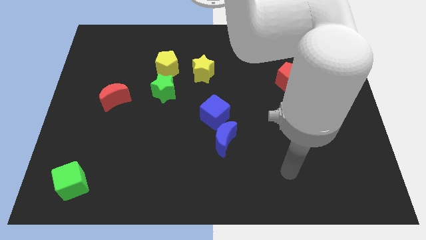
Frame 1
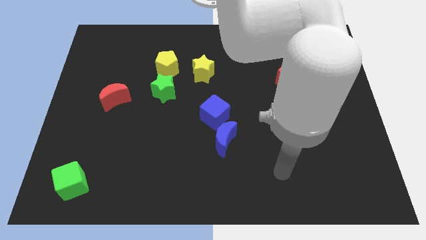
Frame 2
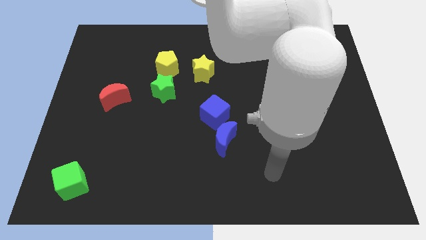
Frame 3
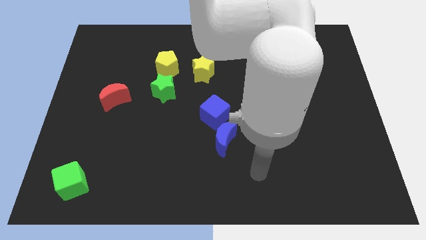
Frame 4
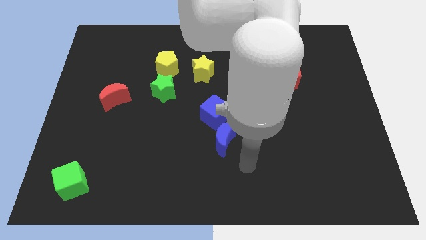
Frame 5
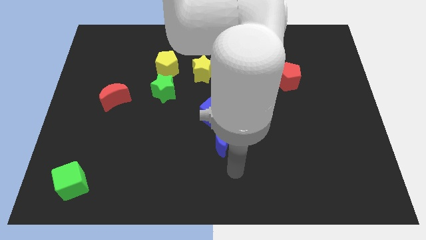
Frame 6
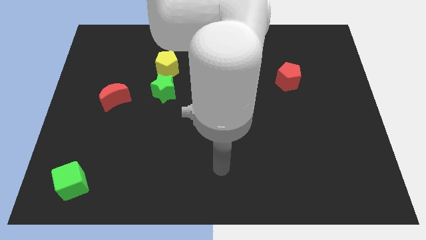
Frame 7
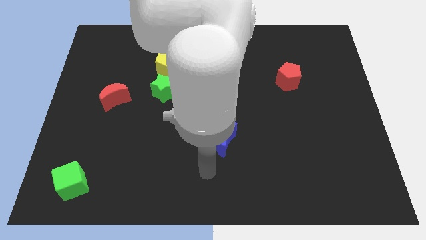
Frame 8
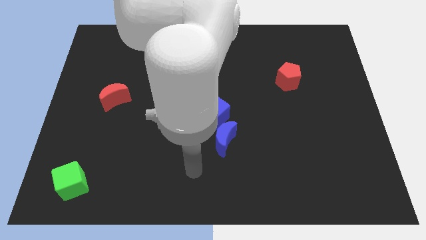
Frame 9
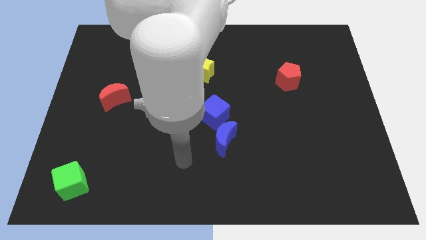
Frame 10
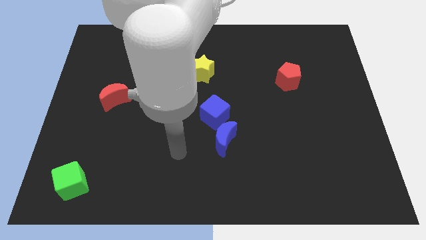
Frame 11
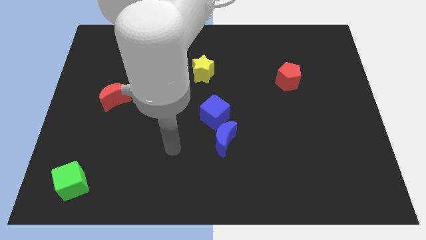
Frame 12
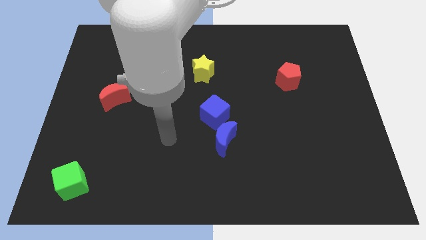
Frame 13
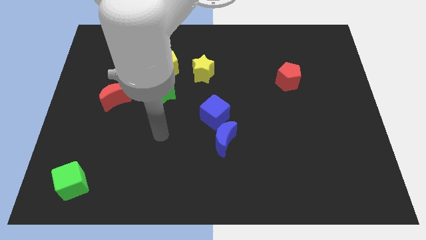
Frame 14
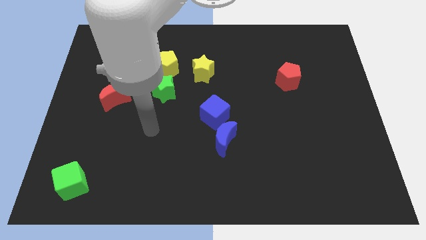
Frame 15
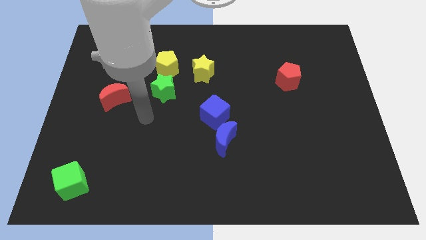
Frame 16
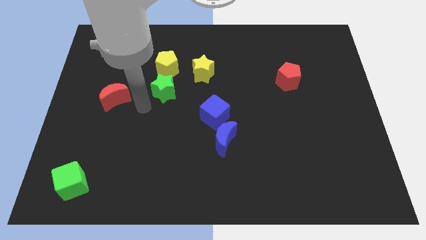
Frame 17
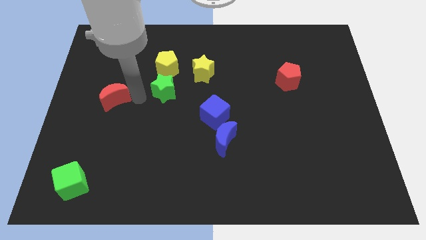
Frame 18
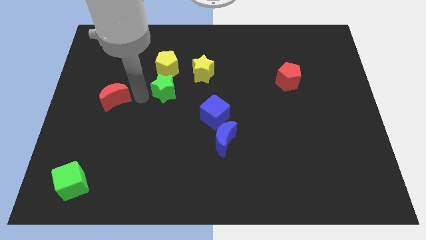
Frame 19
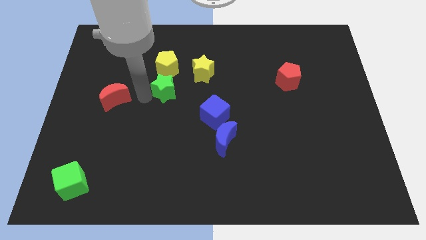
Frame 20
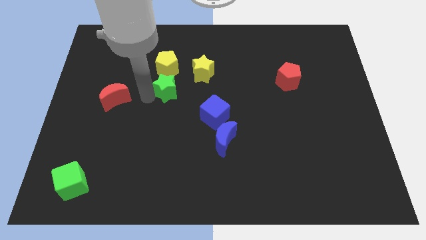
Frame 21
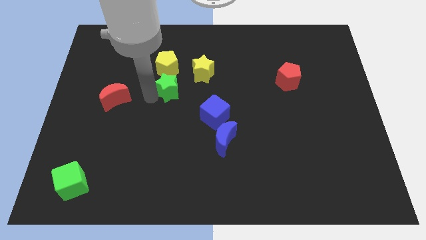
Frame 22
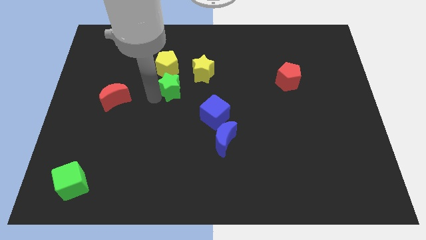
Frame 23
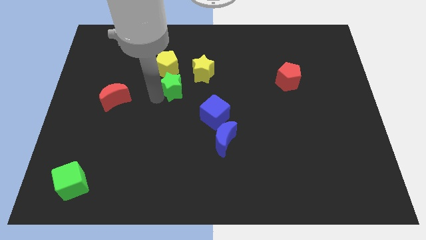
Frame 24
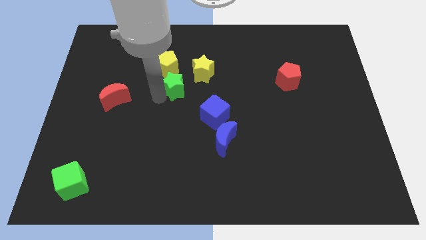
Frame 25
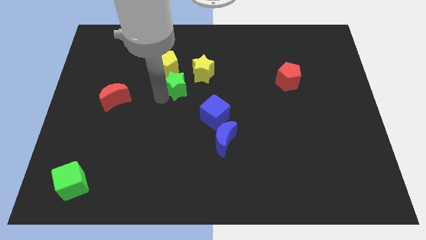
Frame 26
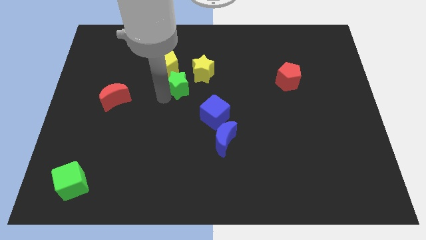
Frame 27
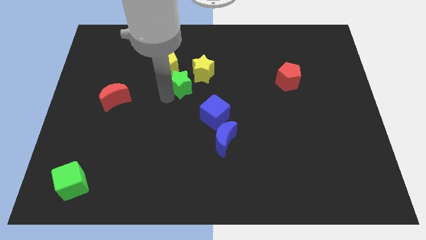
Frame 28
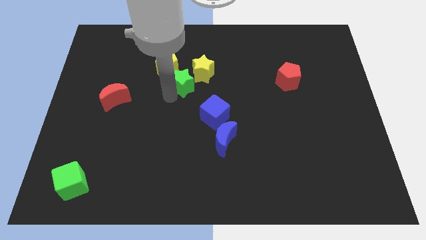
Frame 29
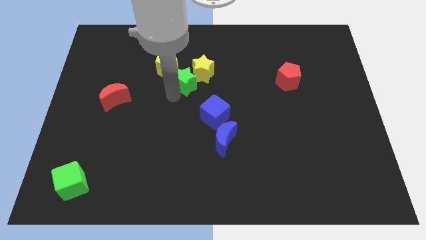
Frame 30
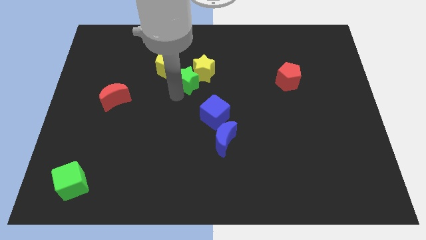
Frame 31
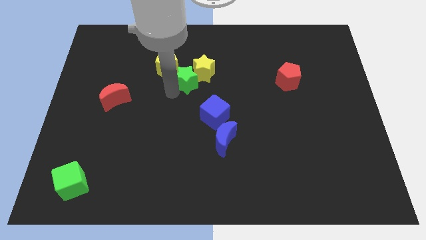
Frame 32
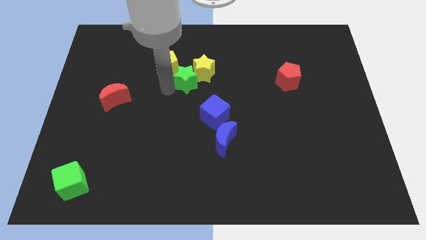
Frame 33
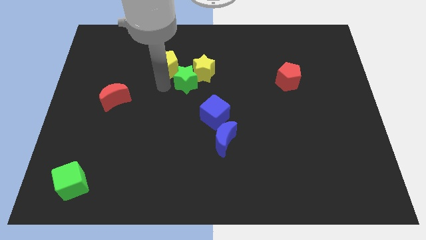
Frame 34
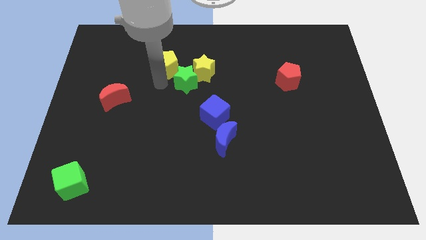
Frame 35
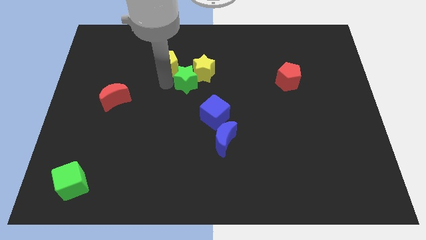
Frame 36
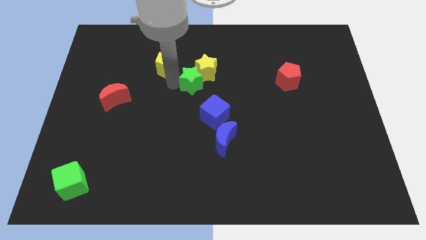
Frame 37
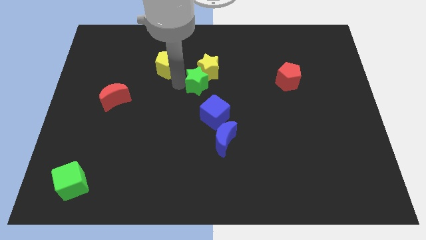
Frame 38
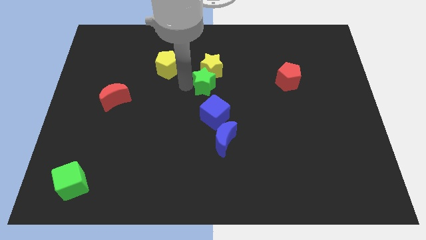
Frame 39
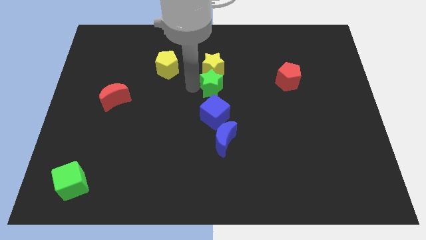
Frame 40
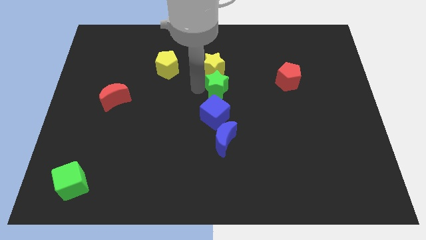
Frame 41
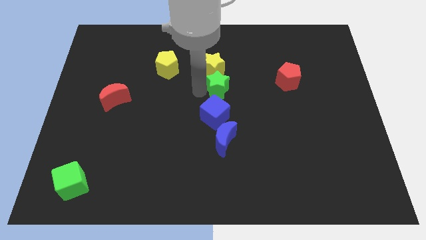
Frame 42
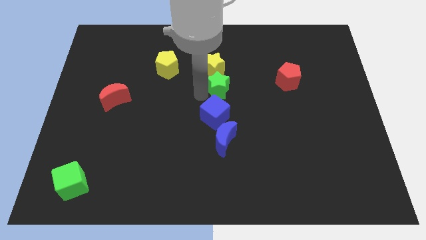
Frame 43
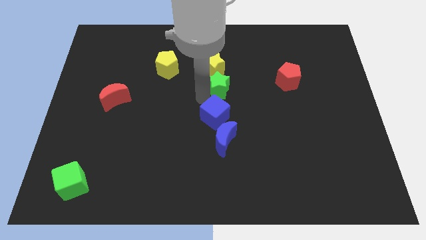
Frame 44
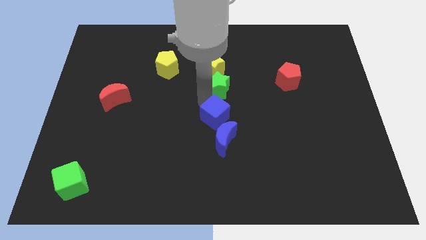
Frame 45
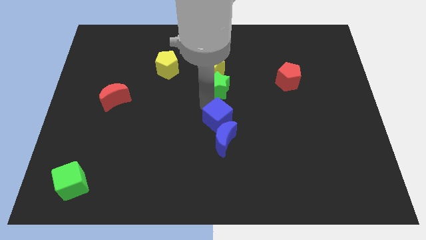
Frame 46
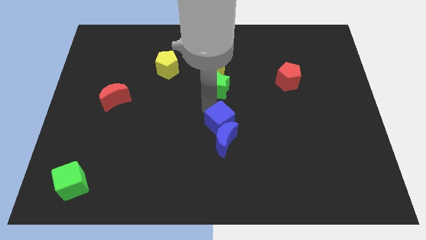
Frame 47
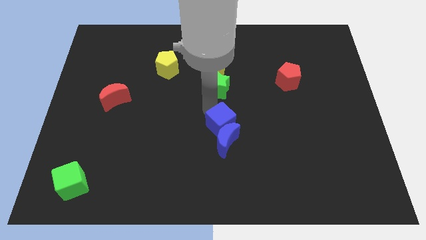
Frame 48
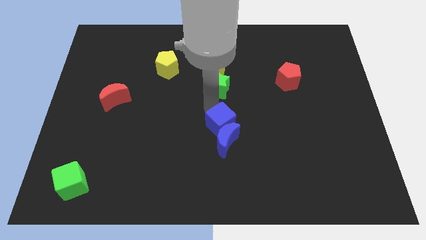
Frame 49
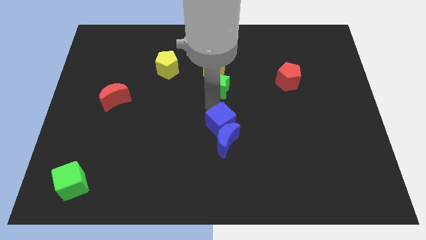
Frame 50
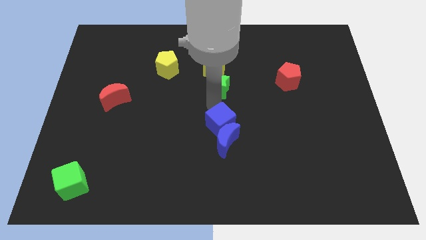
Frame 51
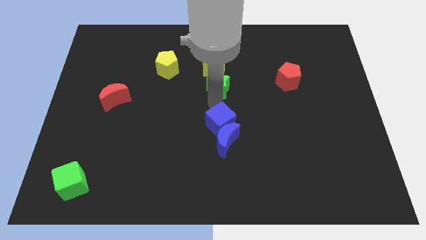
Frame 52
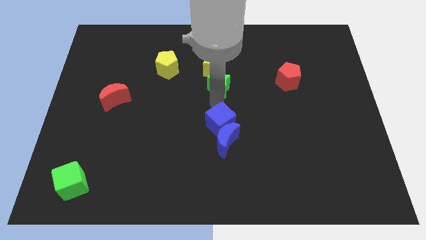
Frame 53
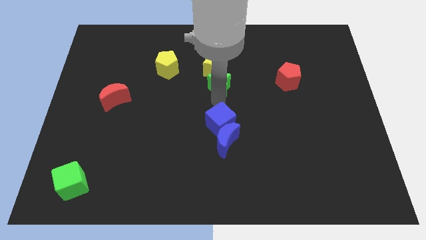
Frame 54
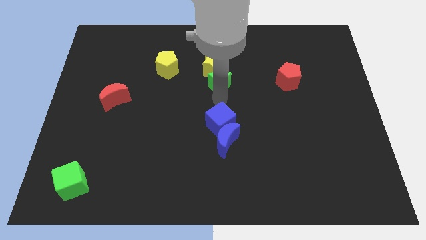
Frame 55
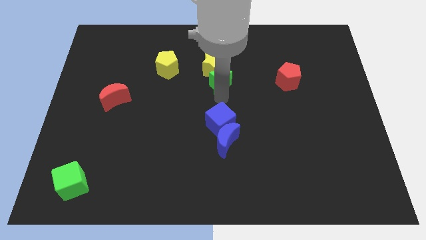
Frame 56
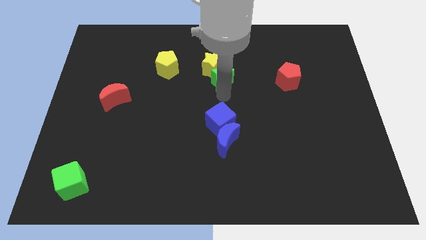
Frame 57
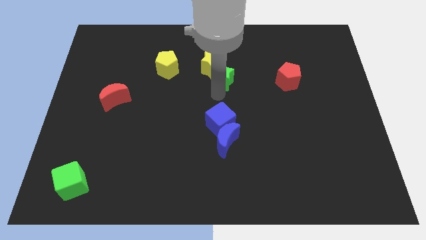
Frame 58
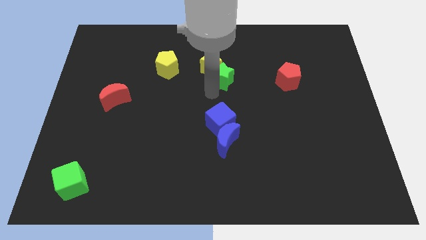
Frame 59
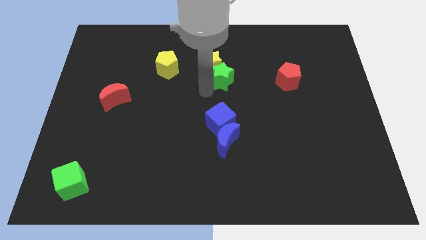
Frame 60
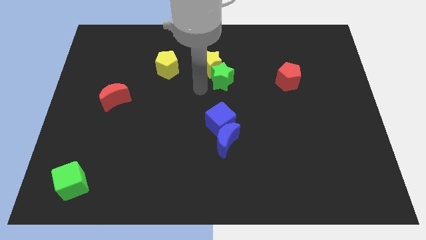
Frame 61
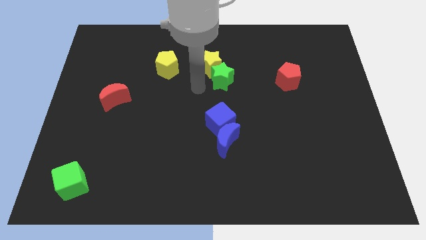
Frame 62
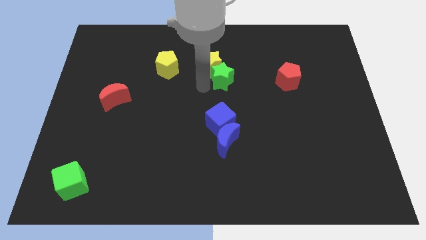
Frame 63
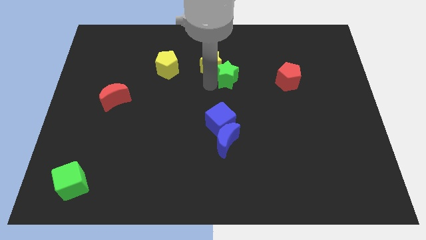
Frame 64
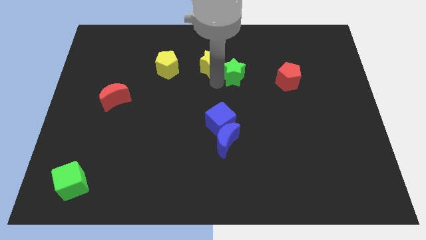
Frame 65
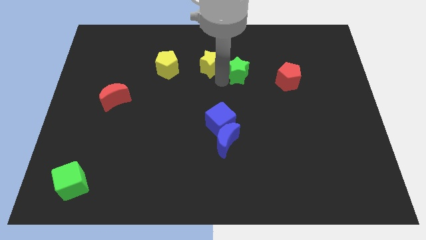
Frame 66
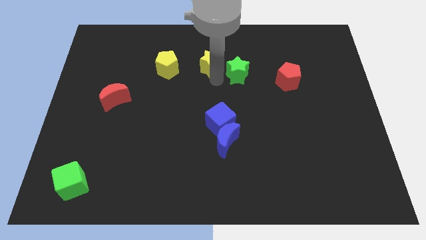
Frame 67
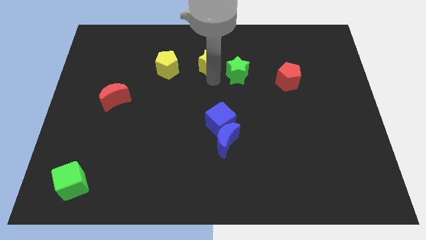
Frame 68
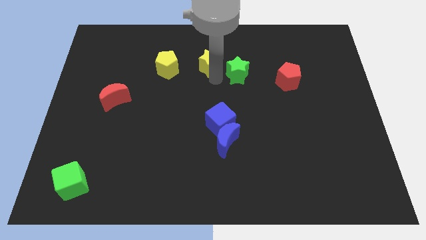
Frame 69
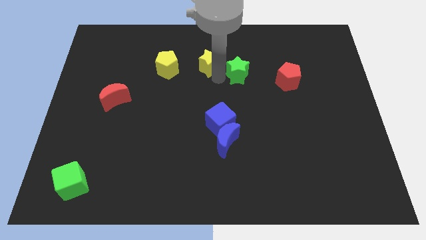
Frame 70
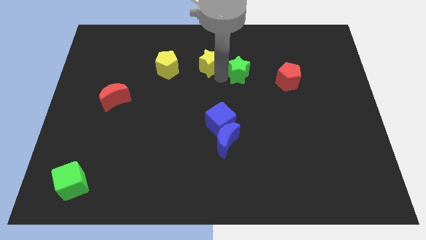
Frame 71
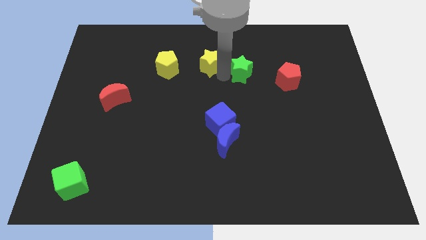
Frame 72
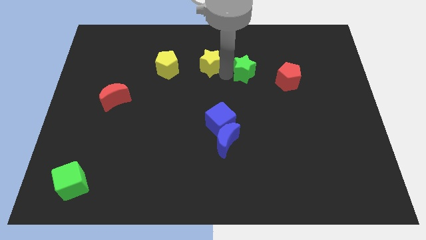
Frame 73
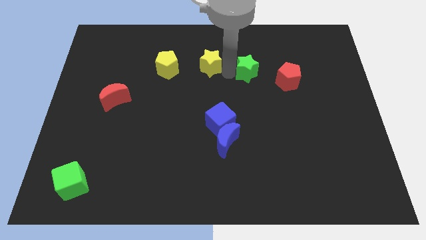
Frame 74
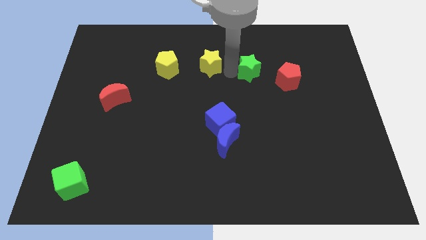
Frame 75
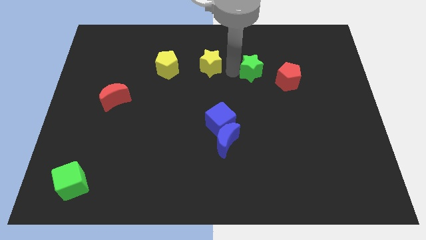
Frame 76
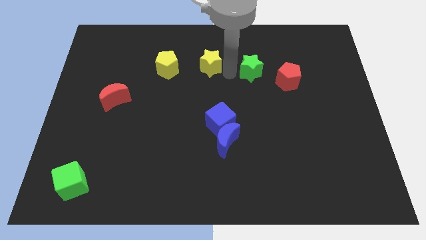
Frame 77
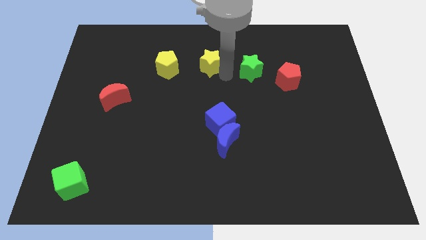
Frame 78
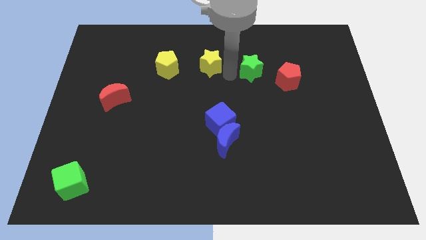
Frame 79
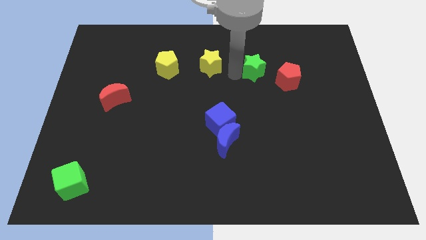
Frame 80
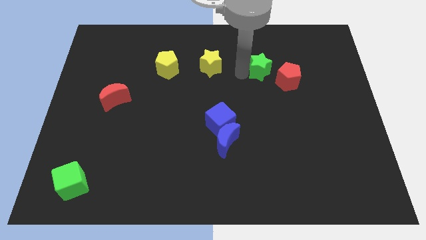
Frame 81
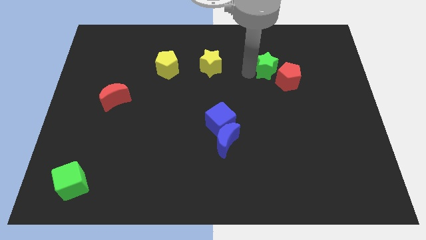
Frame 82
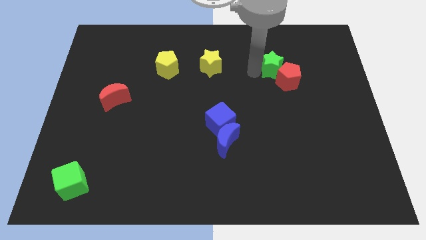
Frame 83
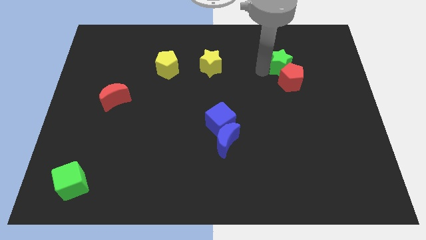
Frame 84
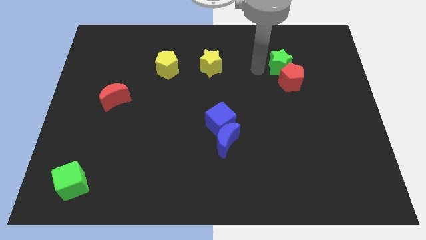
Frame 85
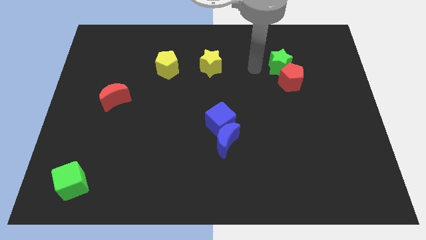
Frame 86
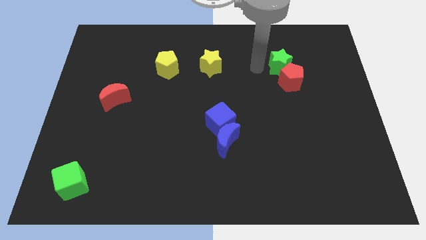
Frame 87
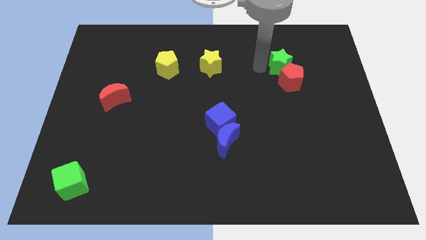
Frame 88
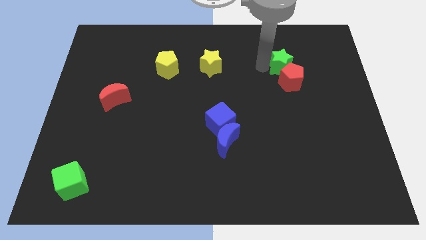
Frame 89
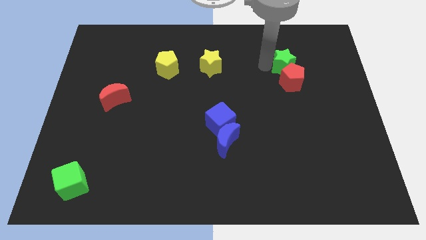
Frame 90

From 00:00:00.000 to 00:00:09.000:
push the green star to the top right side of the red pentagon
